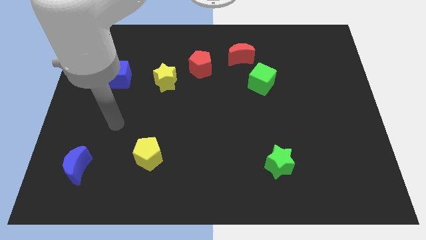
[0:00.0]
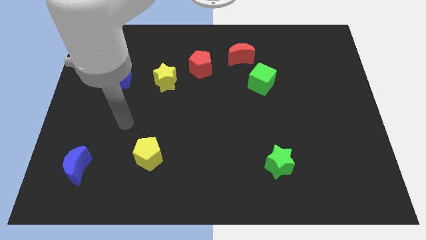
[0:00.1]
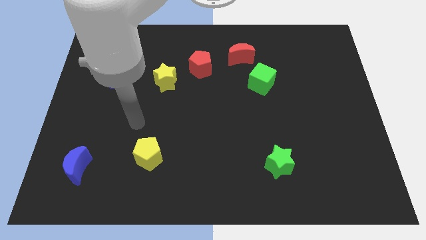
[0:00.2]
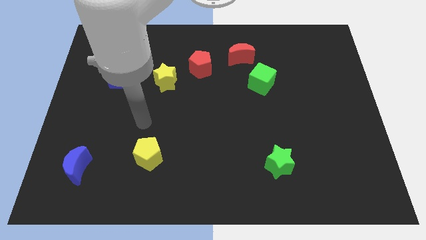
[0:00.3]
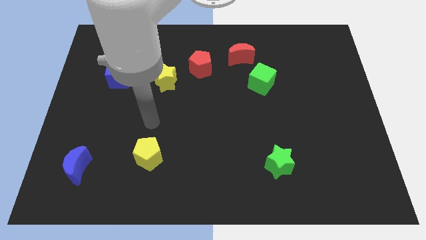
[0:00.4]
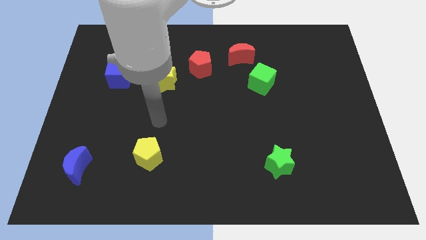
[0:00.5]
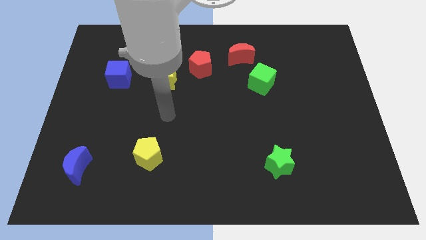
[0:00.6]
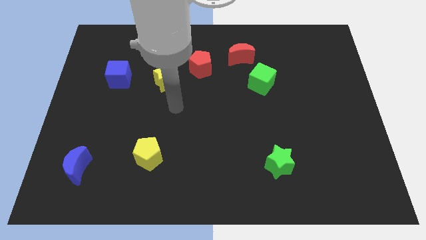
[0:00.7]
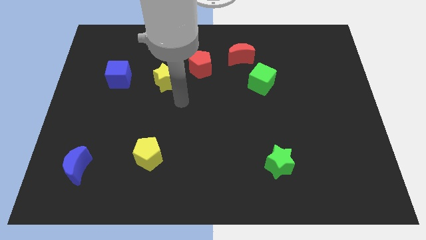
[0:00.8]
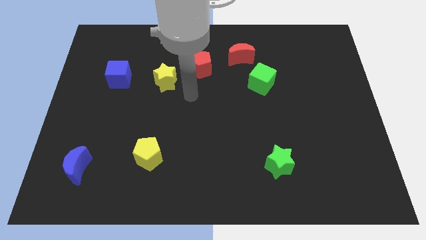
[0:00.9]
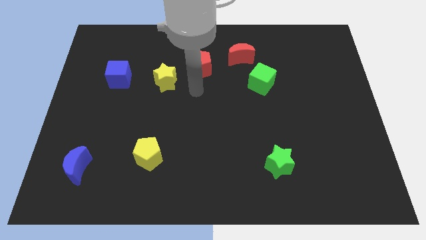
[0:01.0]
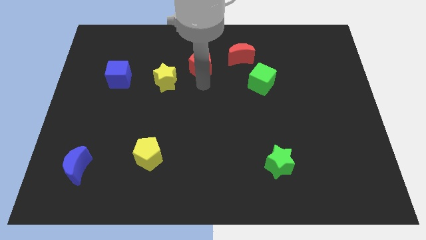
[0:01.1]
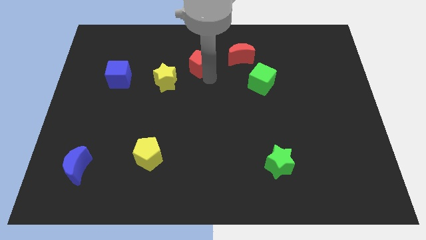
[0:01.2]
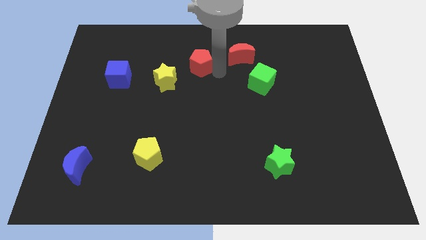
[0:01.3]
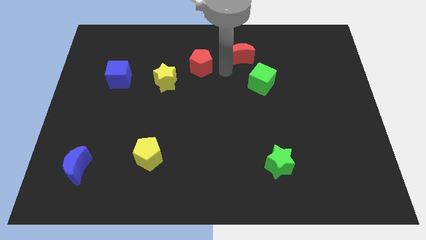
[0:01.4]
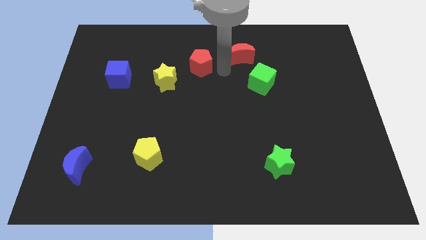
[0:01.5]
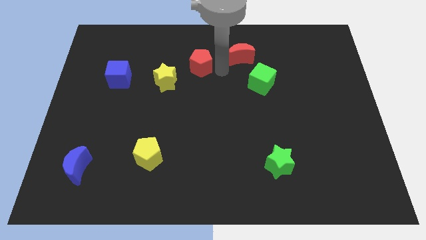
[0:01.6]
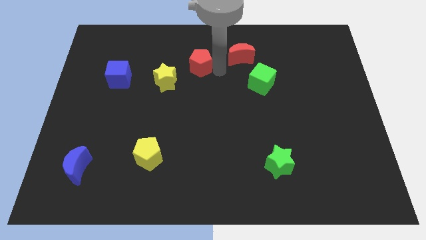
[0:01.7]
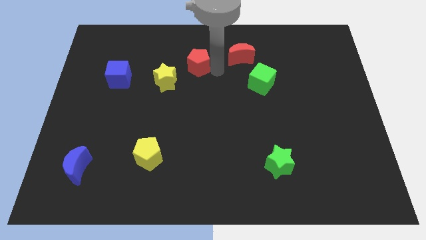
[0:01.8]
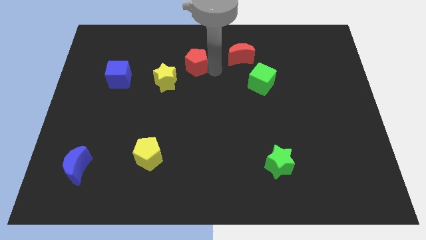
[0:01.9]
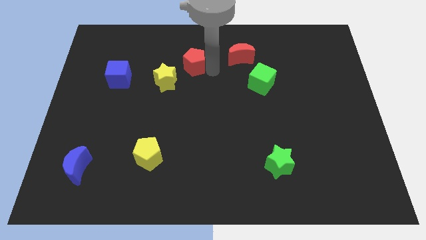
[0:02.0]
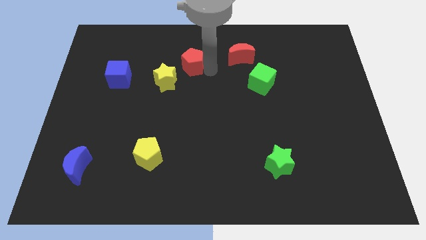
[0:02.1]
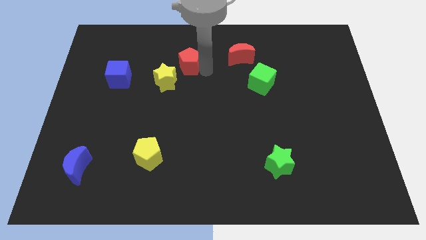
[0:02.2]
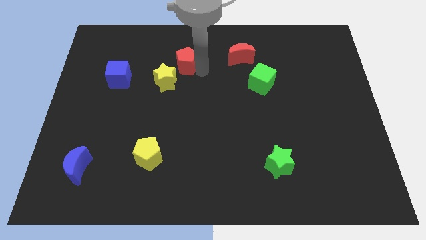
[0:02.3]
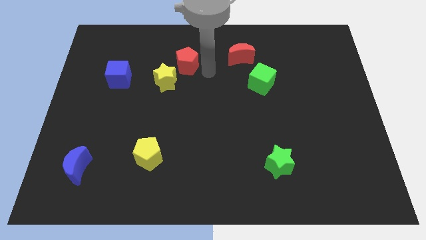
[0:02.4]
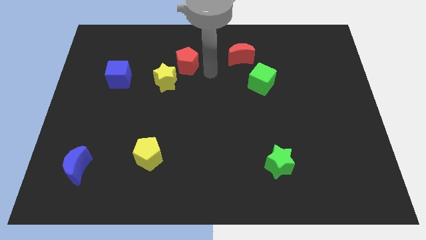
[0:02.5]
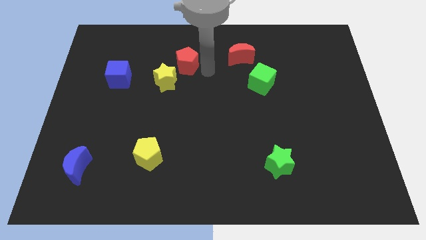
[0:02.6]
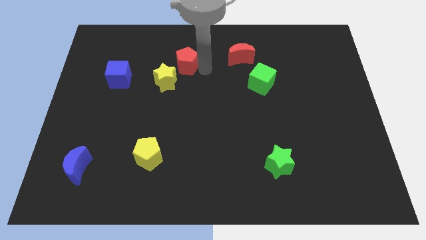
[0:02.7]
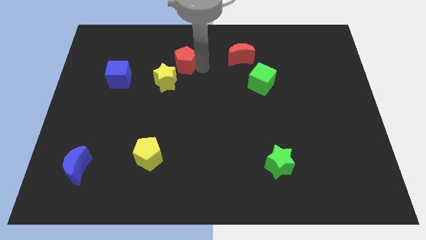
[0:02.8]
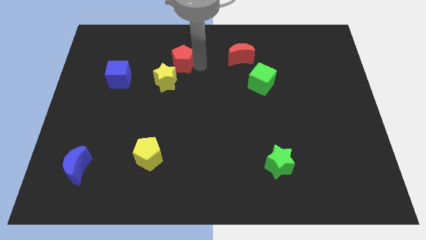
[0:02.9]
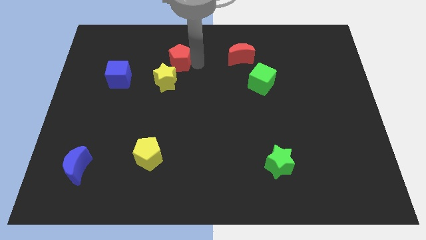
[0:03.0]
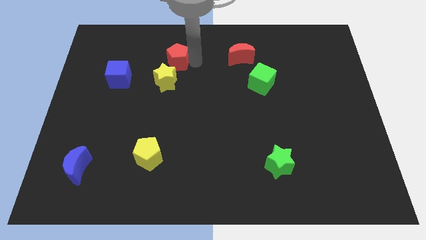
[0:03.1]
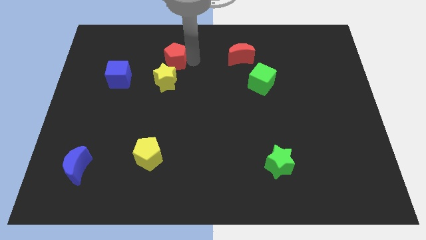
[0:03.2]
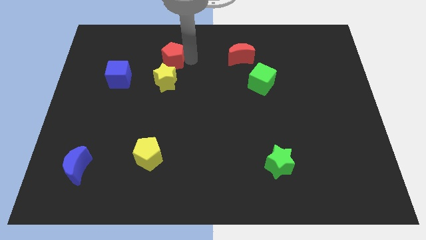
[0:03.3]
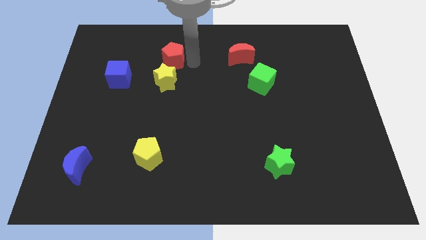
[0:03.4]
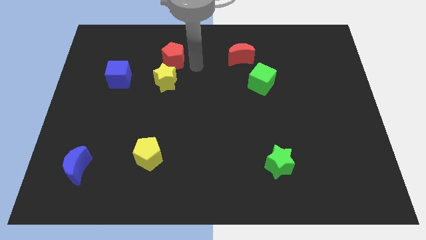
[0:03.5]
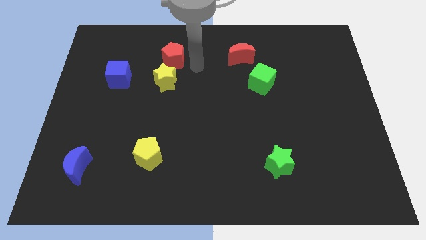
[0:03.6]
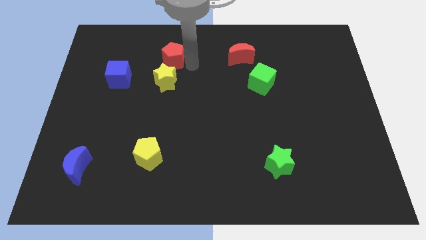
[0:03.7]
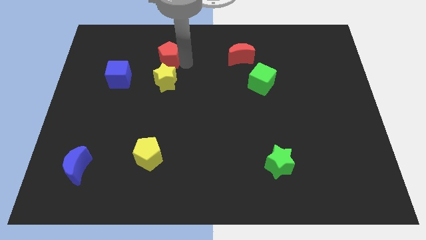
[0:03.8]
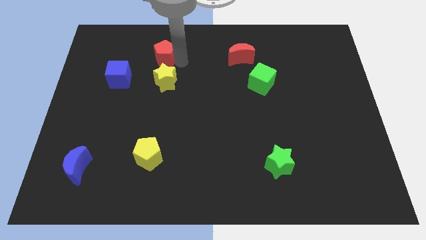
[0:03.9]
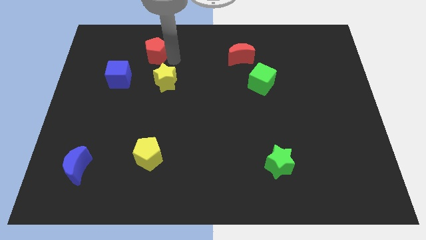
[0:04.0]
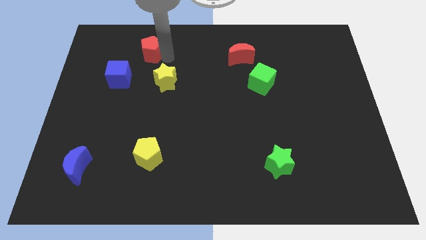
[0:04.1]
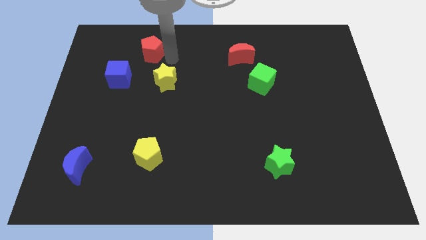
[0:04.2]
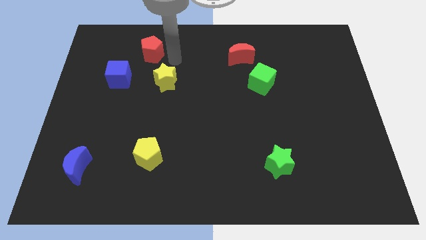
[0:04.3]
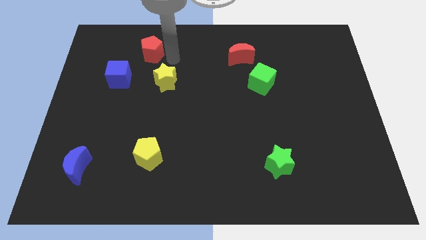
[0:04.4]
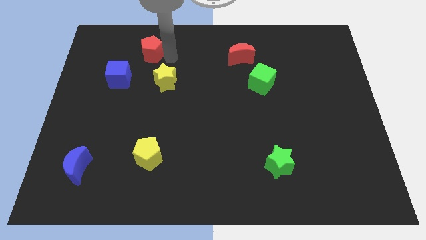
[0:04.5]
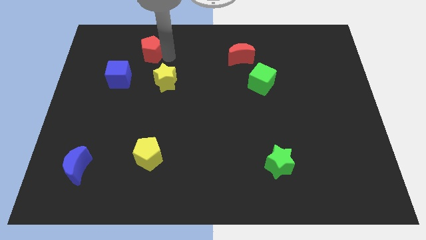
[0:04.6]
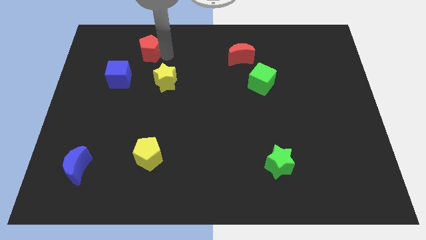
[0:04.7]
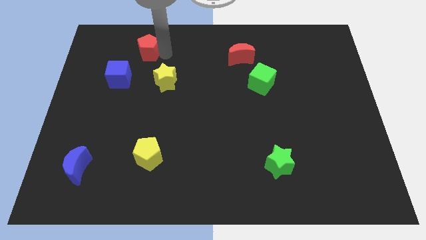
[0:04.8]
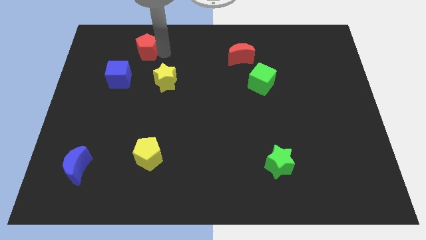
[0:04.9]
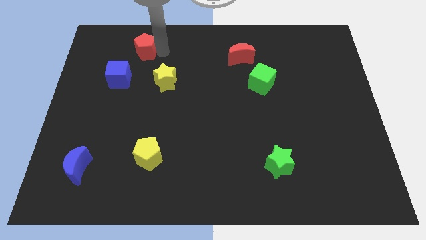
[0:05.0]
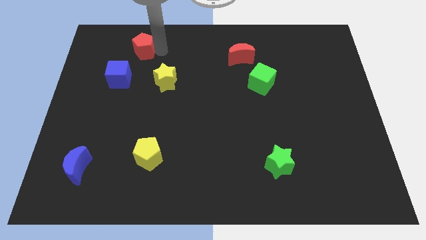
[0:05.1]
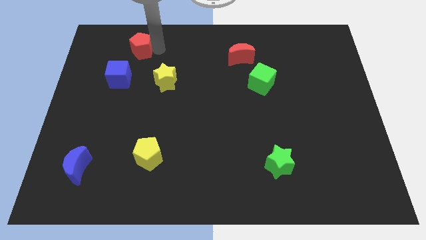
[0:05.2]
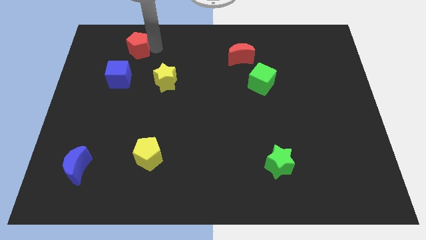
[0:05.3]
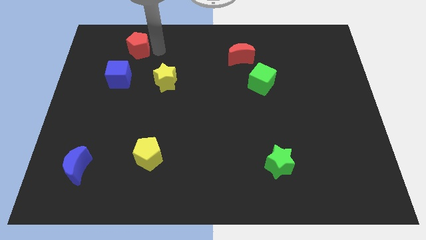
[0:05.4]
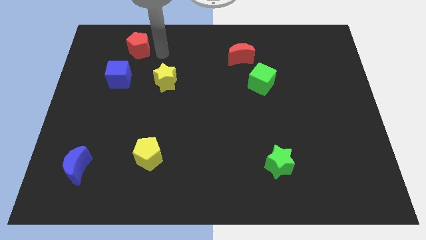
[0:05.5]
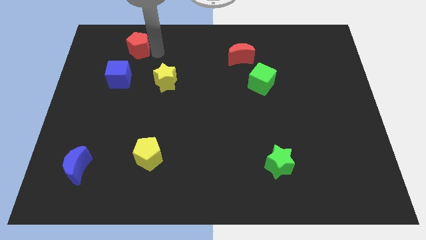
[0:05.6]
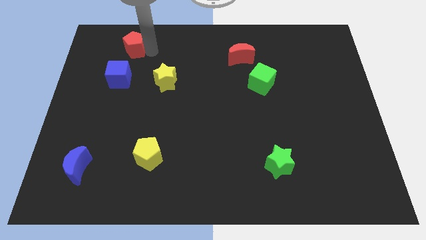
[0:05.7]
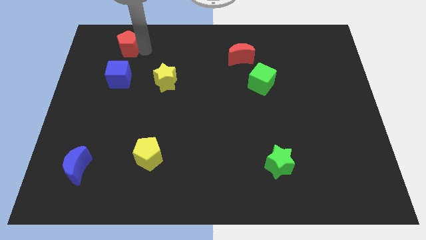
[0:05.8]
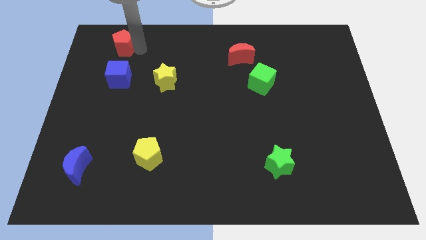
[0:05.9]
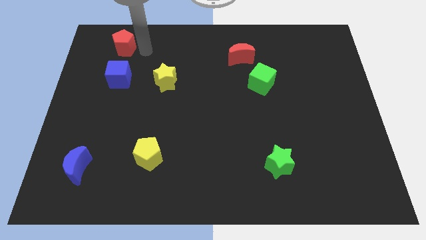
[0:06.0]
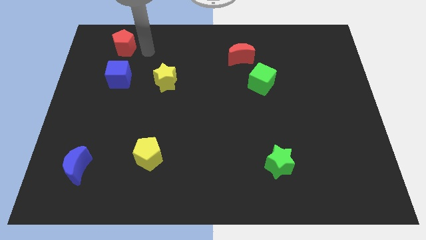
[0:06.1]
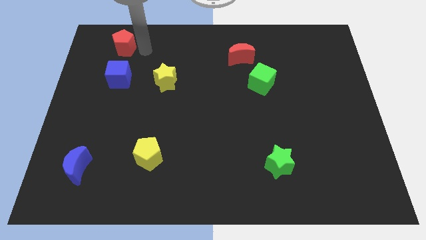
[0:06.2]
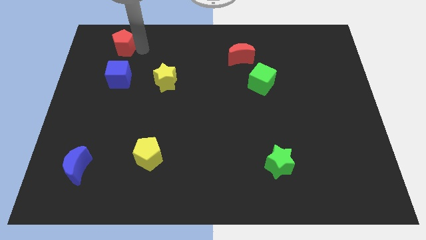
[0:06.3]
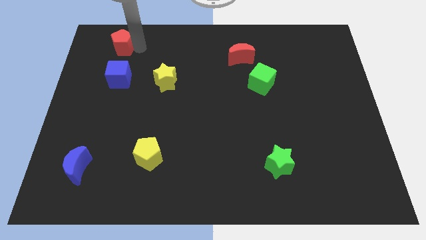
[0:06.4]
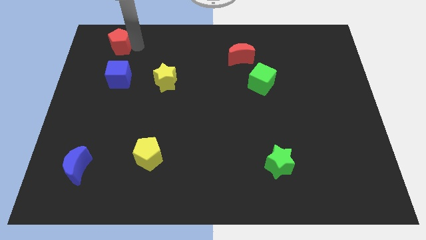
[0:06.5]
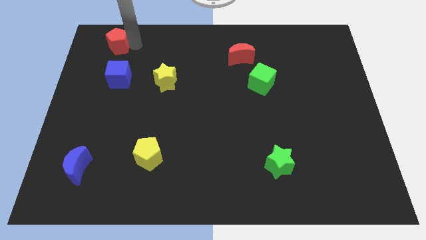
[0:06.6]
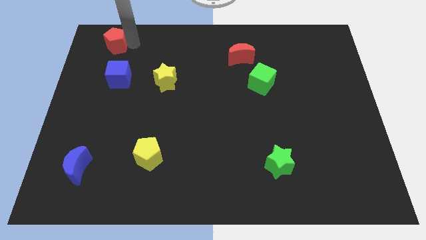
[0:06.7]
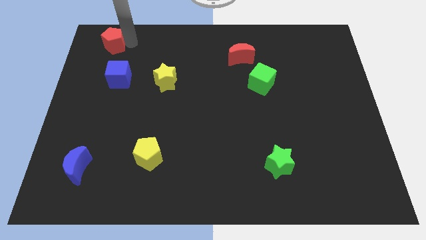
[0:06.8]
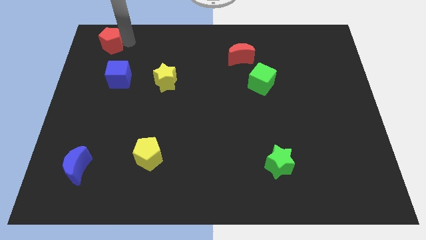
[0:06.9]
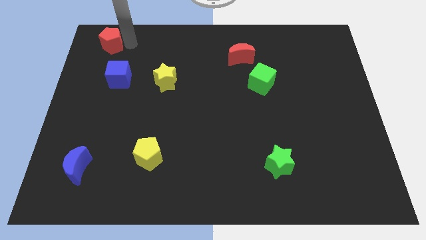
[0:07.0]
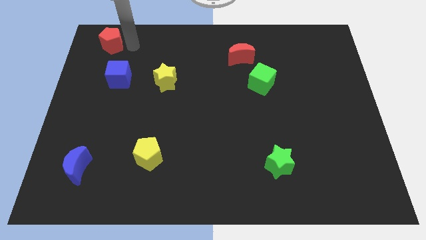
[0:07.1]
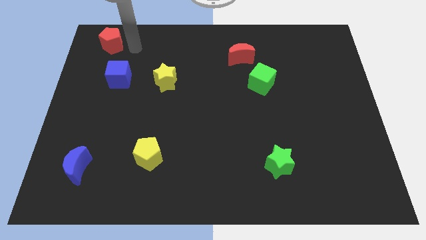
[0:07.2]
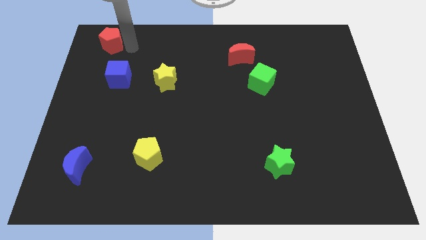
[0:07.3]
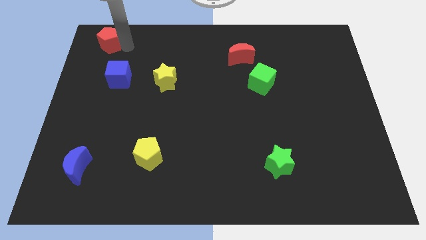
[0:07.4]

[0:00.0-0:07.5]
slide the red pentagon to the top left corner
